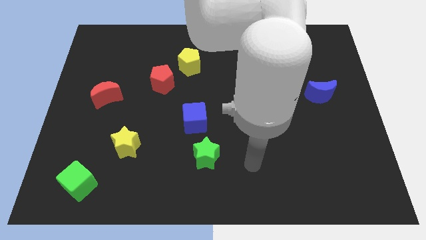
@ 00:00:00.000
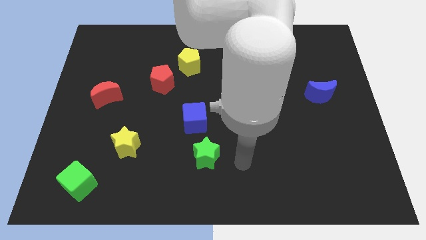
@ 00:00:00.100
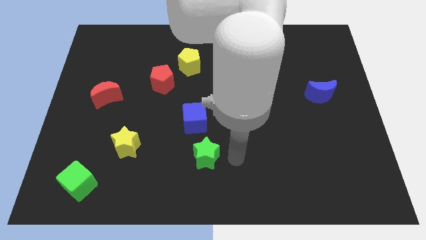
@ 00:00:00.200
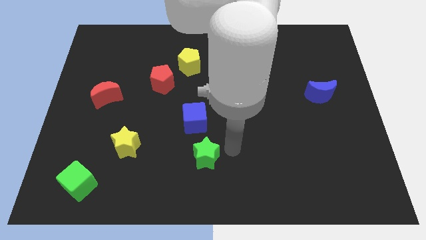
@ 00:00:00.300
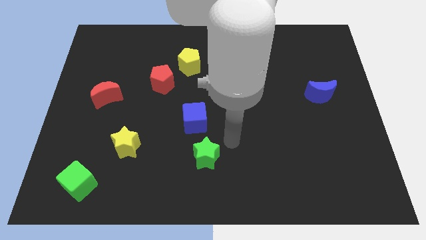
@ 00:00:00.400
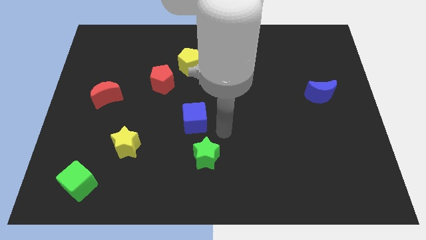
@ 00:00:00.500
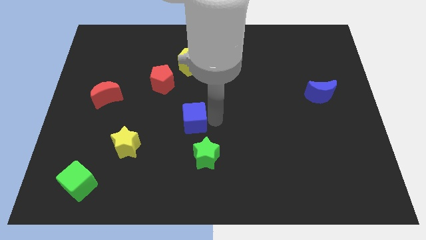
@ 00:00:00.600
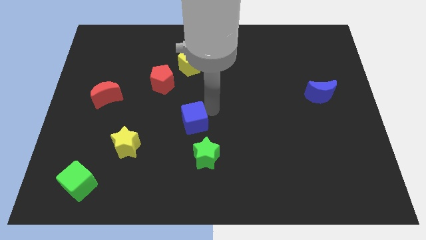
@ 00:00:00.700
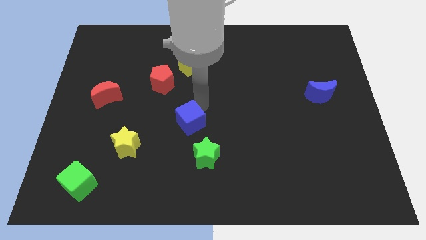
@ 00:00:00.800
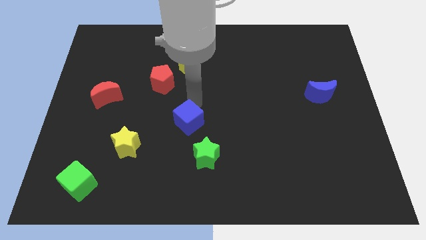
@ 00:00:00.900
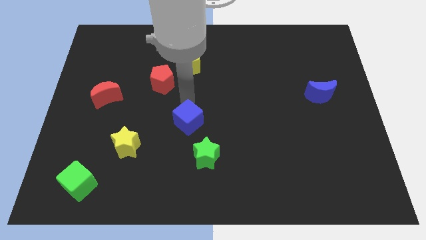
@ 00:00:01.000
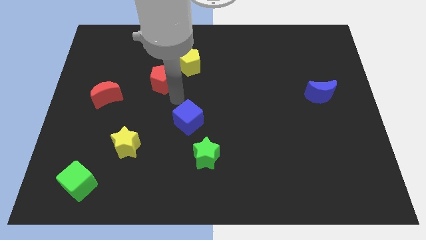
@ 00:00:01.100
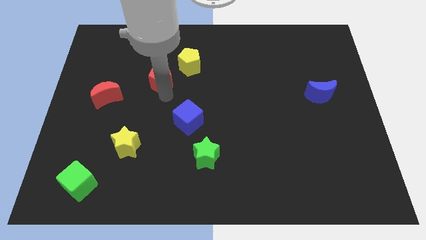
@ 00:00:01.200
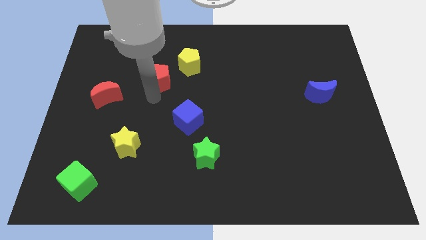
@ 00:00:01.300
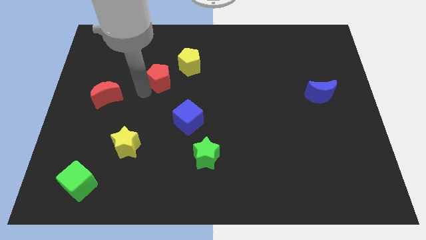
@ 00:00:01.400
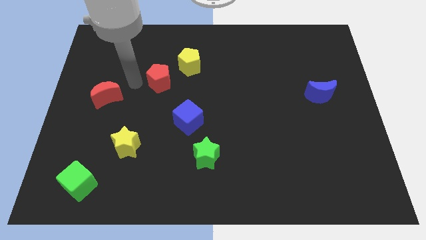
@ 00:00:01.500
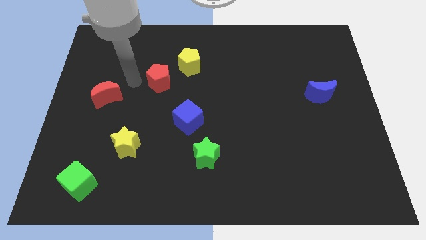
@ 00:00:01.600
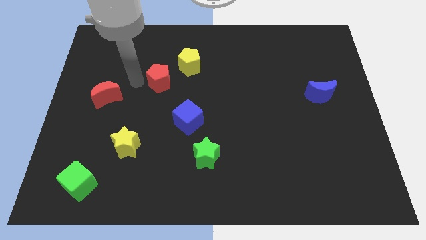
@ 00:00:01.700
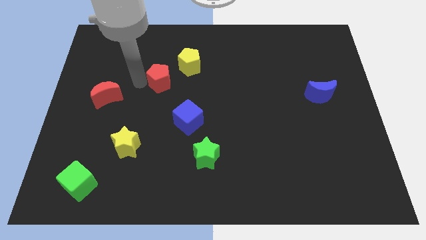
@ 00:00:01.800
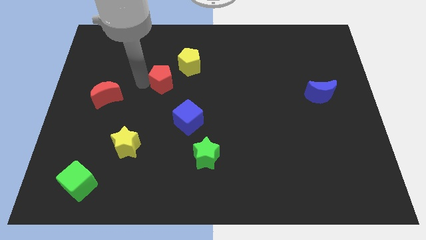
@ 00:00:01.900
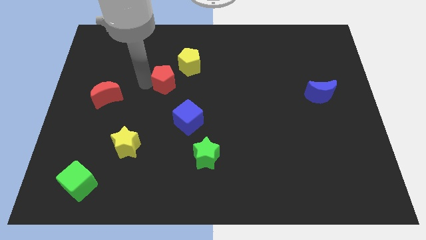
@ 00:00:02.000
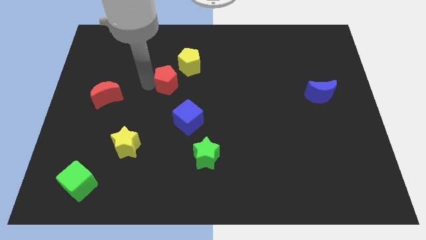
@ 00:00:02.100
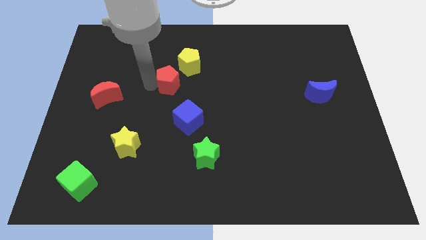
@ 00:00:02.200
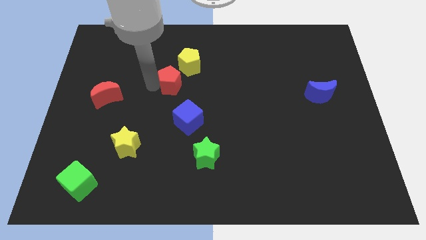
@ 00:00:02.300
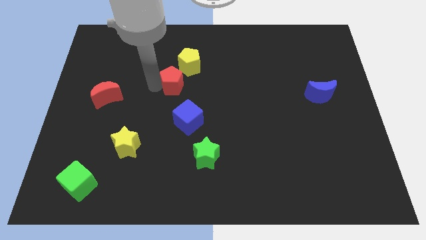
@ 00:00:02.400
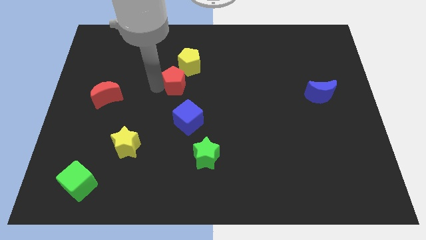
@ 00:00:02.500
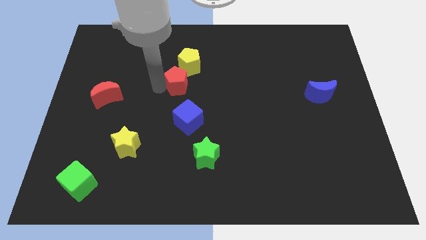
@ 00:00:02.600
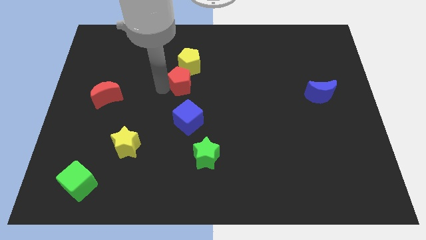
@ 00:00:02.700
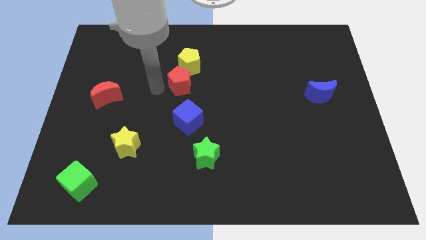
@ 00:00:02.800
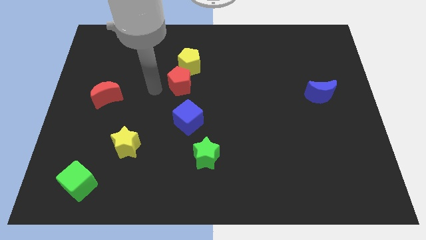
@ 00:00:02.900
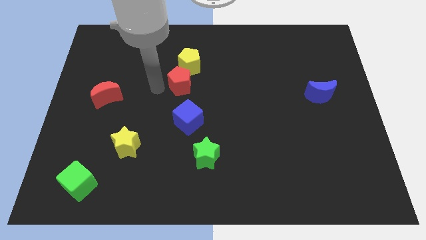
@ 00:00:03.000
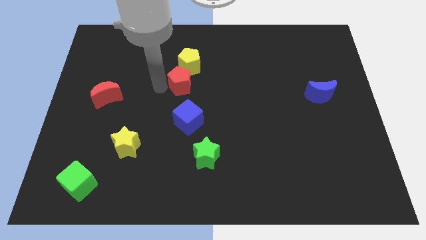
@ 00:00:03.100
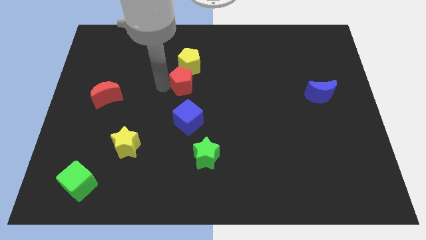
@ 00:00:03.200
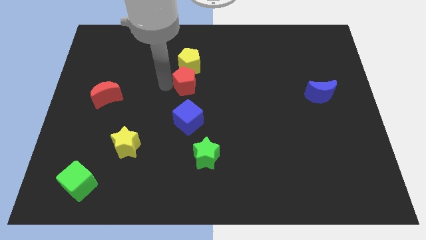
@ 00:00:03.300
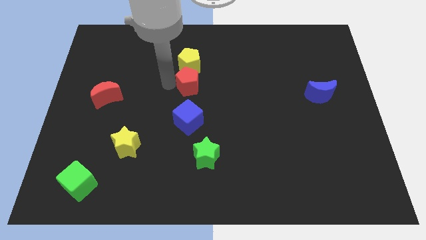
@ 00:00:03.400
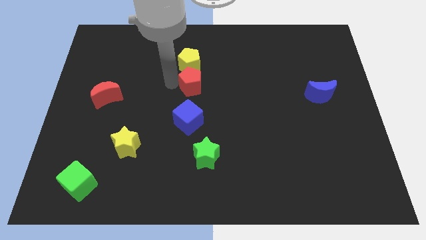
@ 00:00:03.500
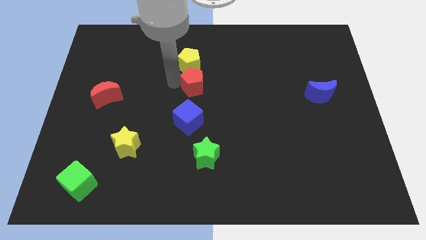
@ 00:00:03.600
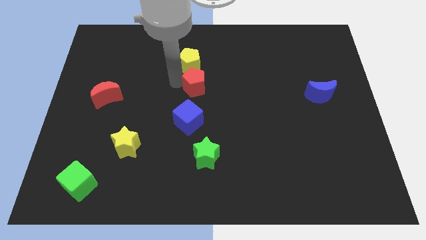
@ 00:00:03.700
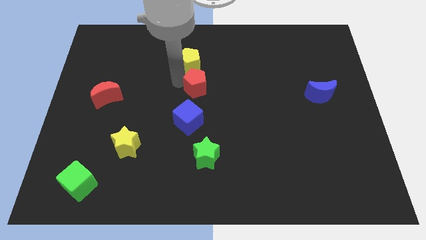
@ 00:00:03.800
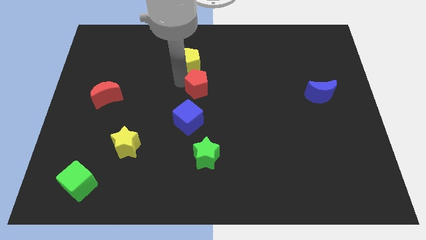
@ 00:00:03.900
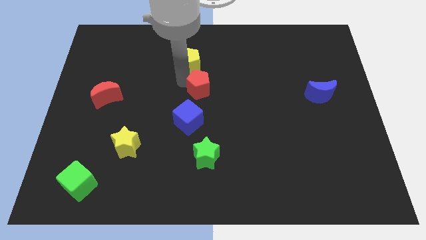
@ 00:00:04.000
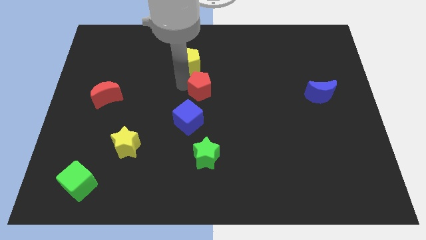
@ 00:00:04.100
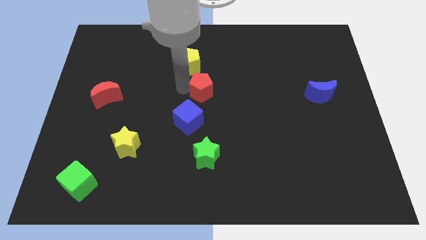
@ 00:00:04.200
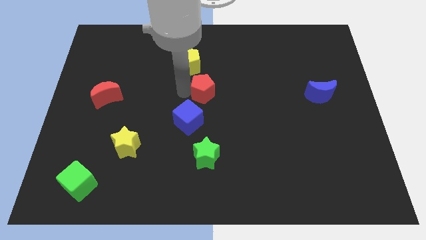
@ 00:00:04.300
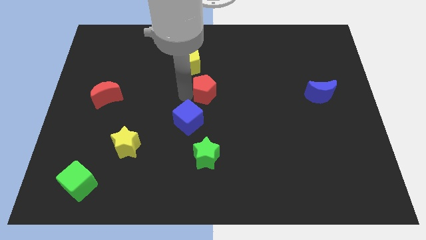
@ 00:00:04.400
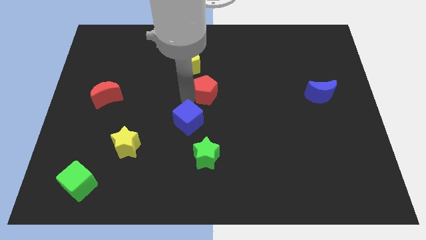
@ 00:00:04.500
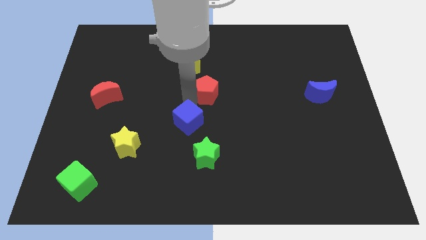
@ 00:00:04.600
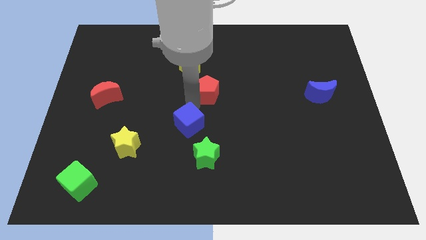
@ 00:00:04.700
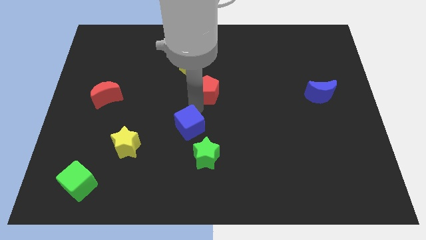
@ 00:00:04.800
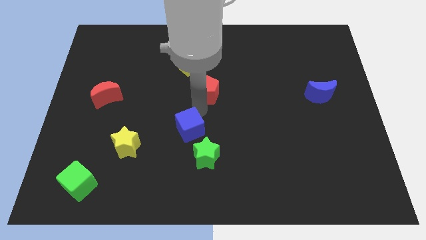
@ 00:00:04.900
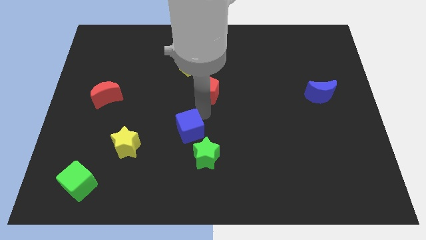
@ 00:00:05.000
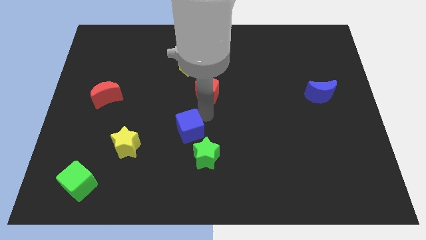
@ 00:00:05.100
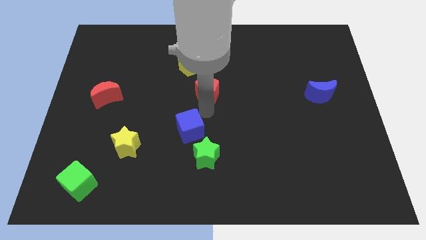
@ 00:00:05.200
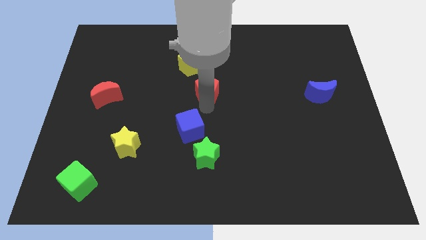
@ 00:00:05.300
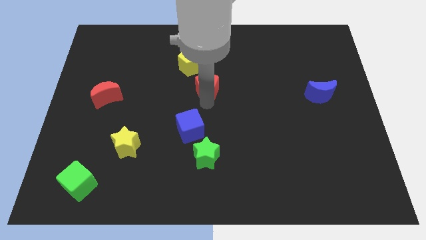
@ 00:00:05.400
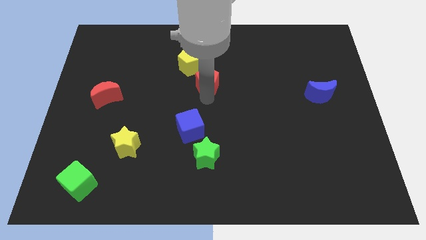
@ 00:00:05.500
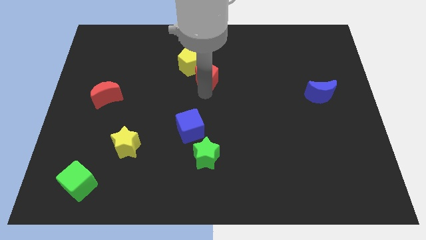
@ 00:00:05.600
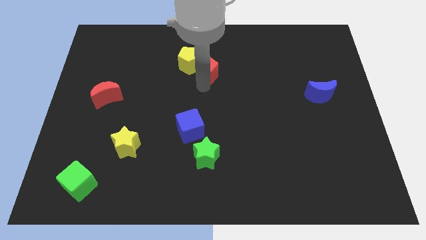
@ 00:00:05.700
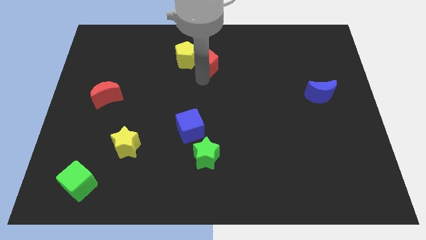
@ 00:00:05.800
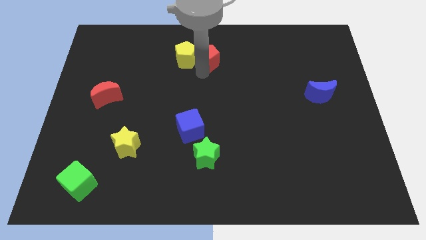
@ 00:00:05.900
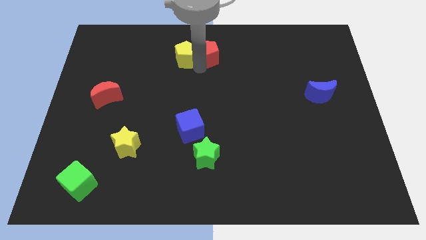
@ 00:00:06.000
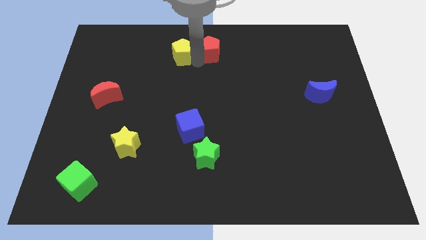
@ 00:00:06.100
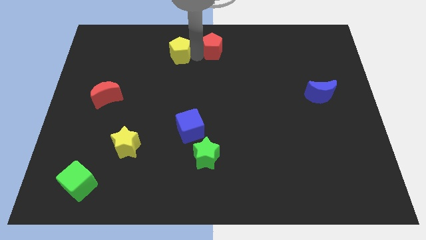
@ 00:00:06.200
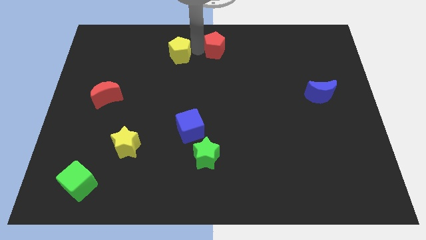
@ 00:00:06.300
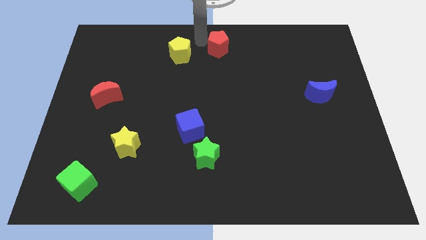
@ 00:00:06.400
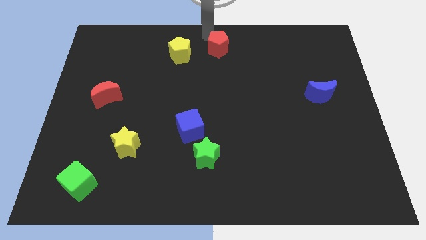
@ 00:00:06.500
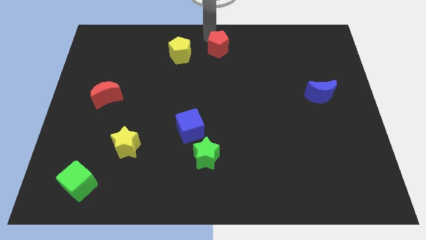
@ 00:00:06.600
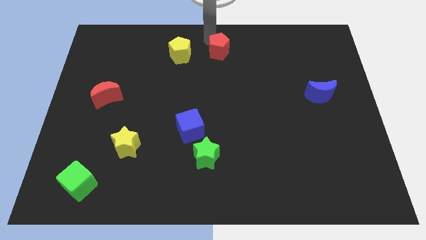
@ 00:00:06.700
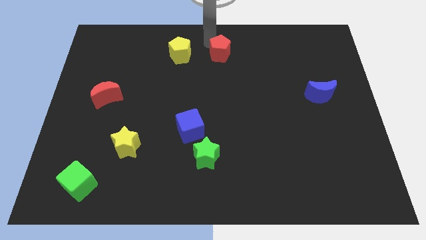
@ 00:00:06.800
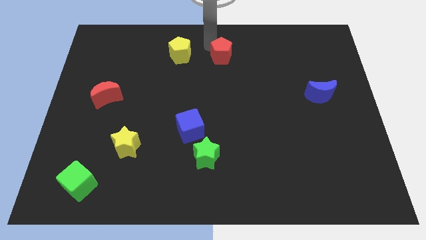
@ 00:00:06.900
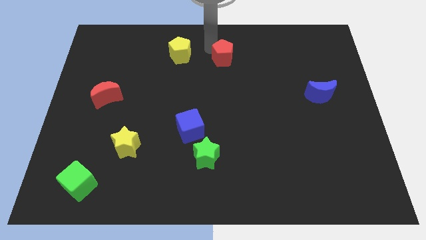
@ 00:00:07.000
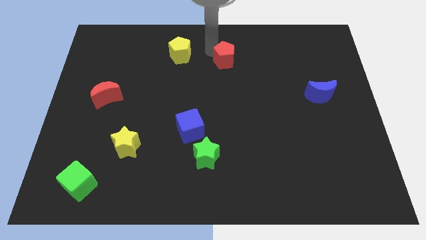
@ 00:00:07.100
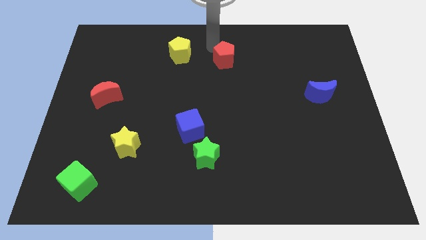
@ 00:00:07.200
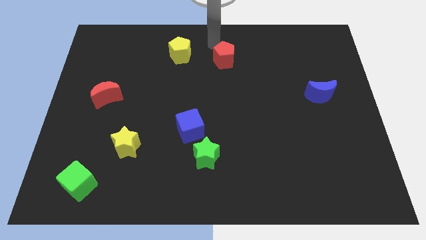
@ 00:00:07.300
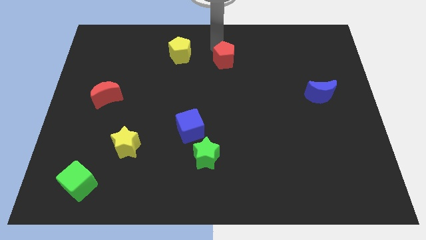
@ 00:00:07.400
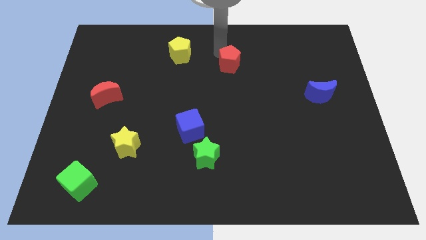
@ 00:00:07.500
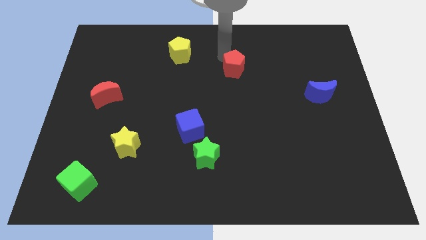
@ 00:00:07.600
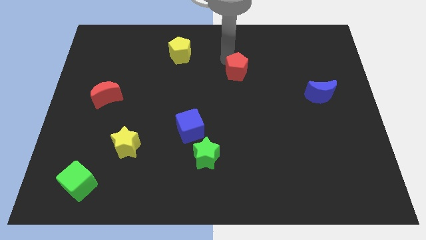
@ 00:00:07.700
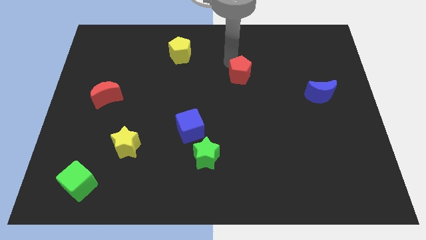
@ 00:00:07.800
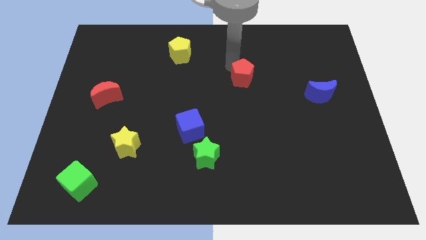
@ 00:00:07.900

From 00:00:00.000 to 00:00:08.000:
slide the red pentagon right
